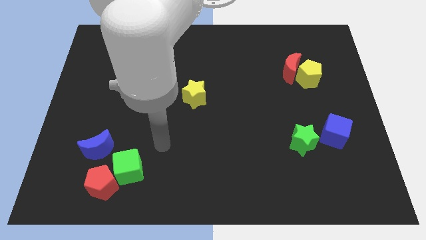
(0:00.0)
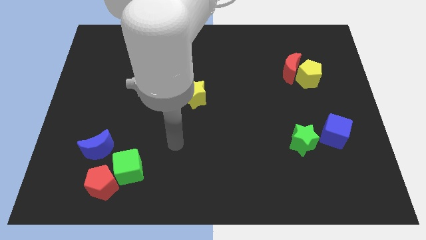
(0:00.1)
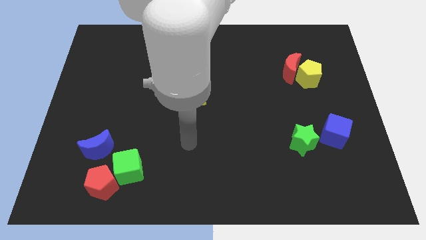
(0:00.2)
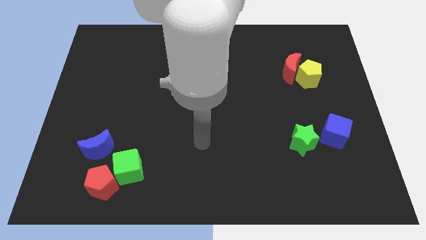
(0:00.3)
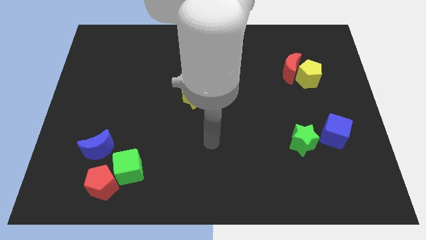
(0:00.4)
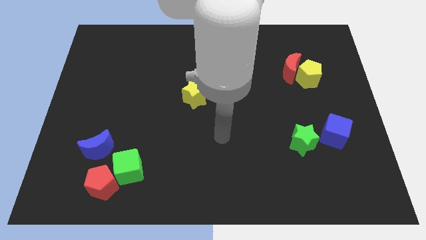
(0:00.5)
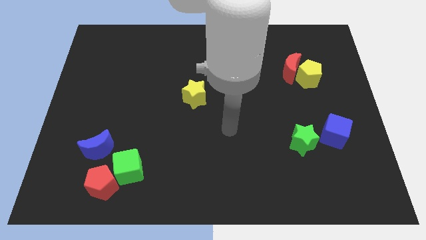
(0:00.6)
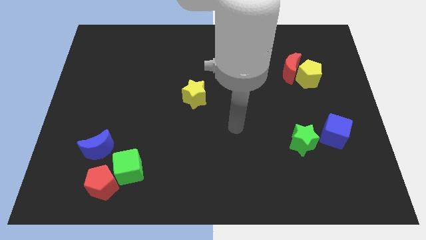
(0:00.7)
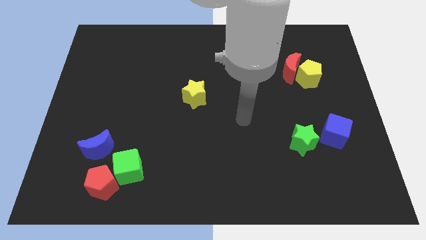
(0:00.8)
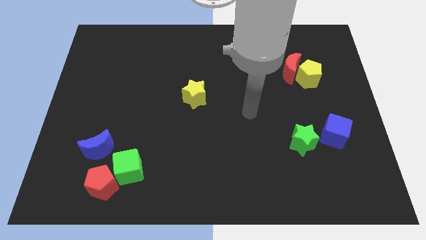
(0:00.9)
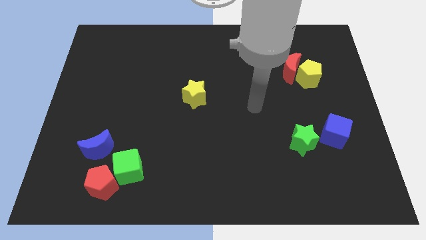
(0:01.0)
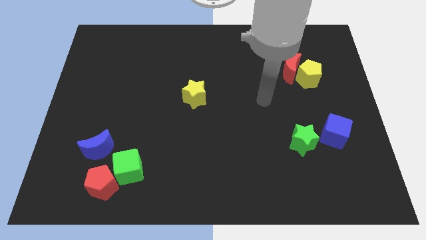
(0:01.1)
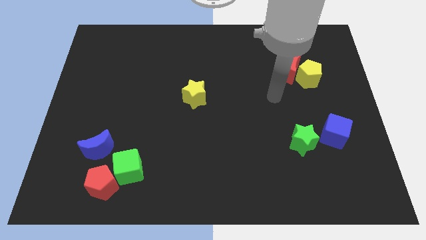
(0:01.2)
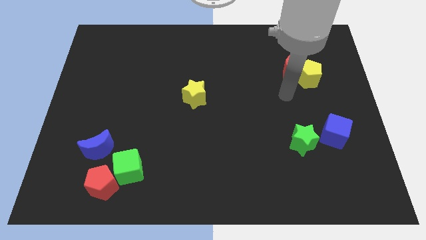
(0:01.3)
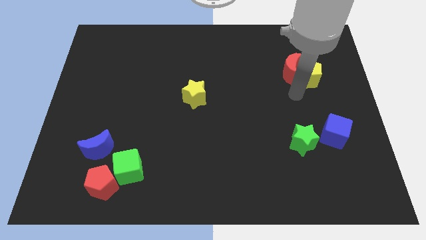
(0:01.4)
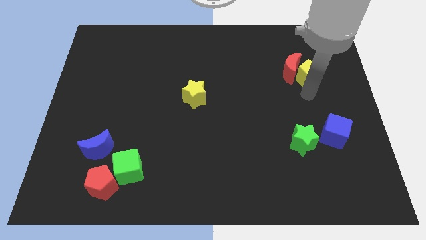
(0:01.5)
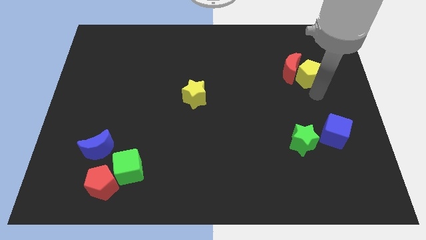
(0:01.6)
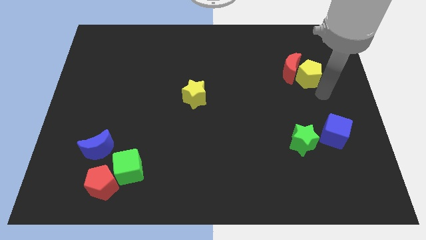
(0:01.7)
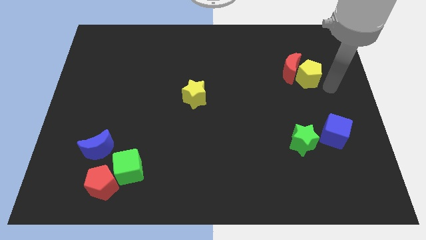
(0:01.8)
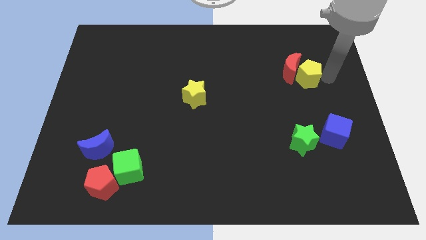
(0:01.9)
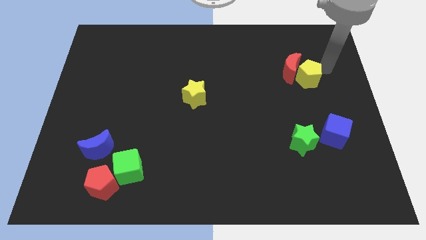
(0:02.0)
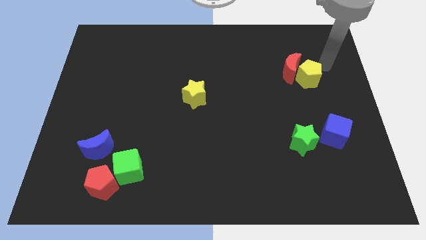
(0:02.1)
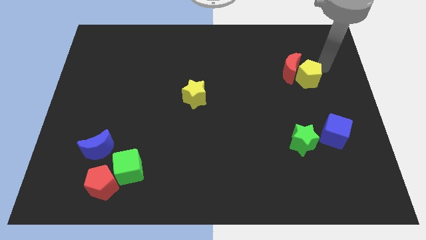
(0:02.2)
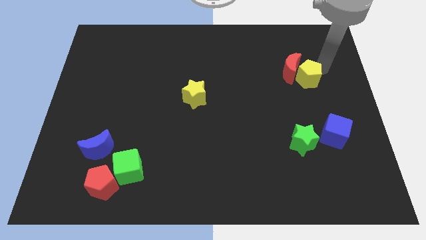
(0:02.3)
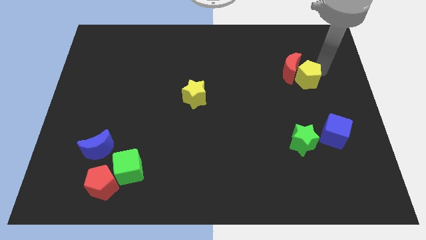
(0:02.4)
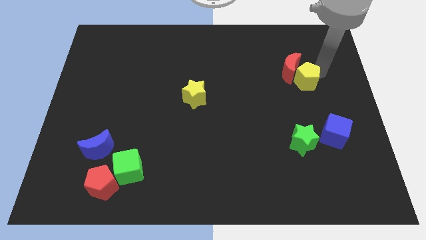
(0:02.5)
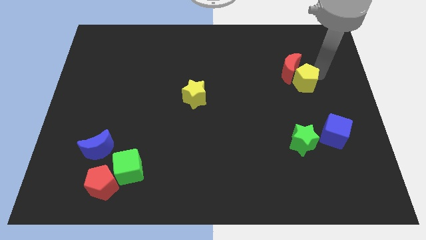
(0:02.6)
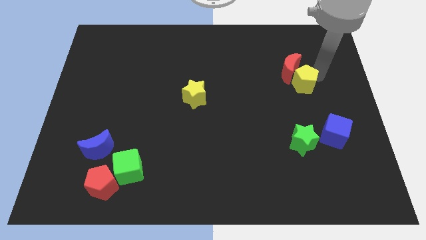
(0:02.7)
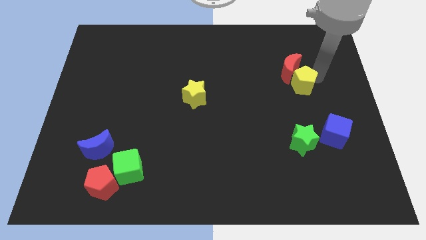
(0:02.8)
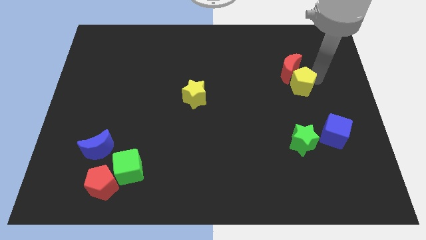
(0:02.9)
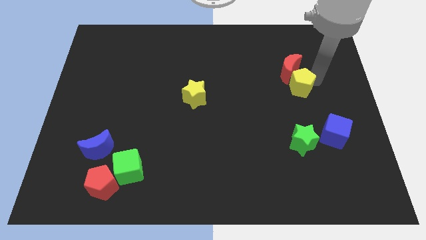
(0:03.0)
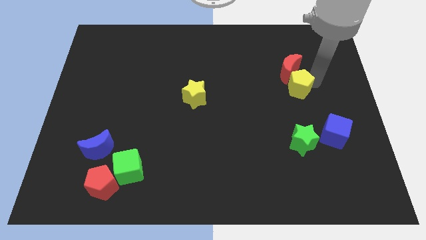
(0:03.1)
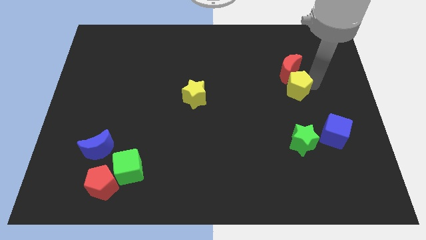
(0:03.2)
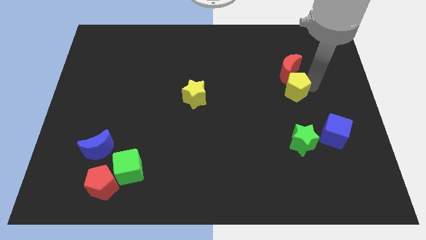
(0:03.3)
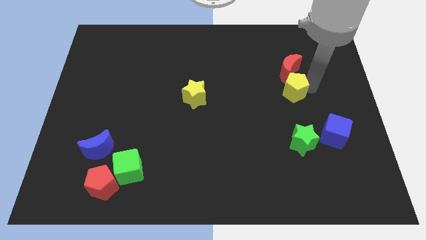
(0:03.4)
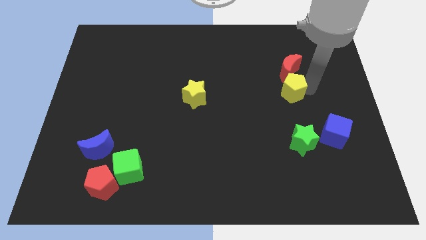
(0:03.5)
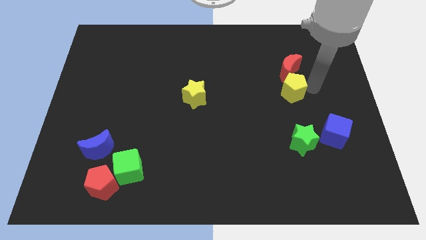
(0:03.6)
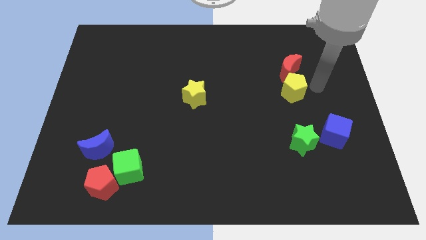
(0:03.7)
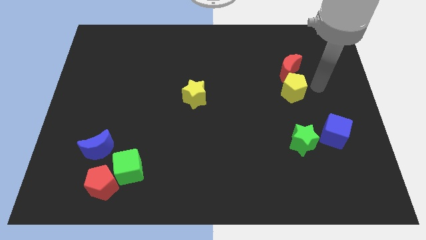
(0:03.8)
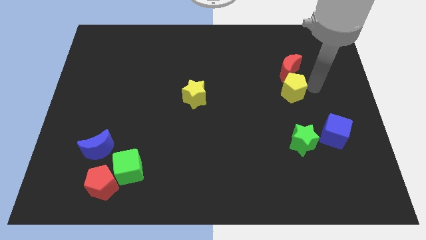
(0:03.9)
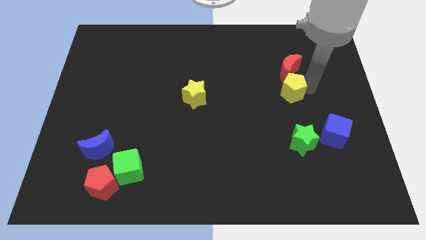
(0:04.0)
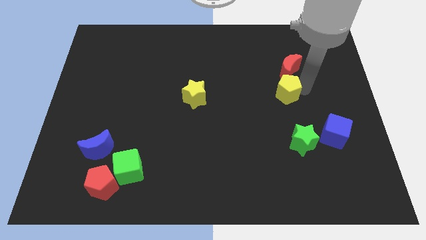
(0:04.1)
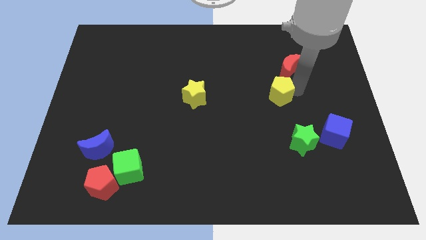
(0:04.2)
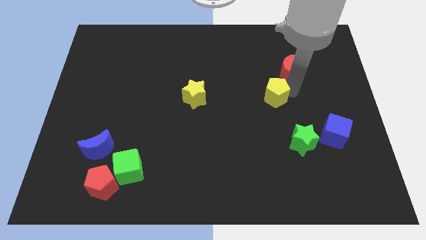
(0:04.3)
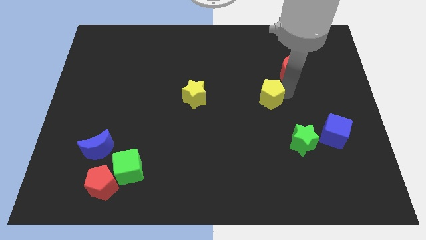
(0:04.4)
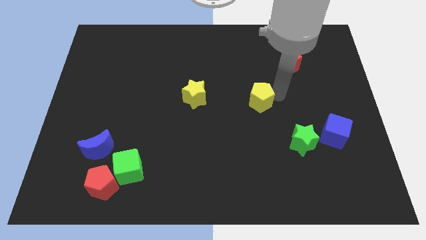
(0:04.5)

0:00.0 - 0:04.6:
slide the yellow pentagon to the center of the board

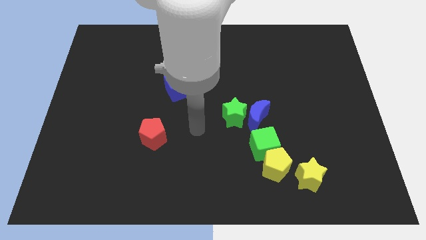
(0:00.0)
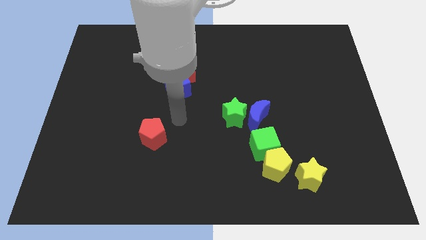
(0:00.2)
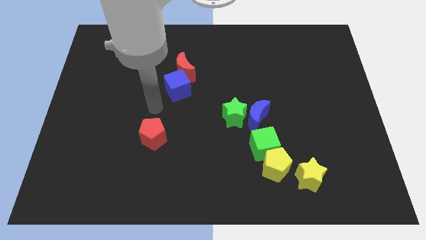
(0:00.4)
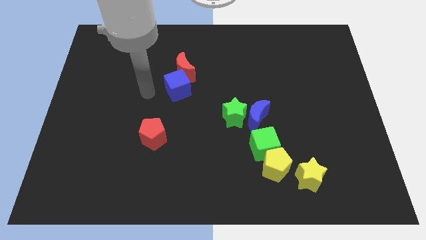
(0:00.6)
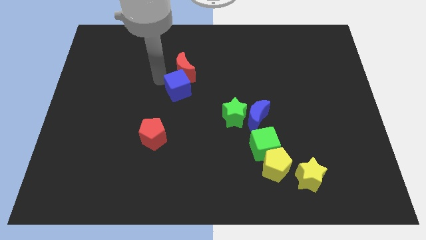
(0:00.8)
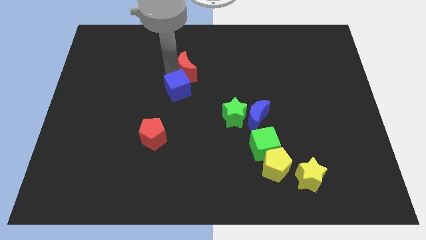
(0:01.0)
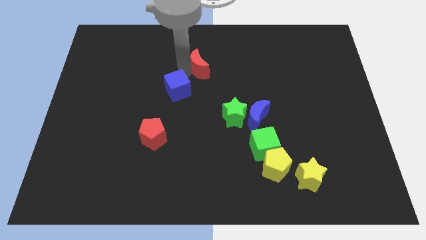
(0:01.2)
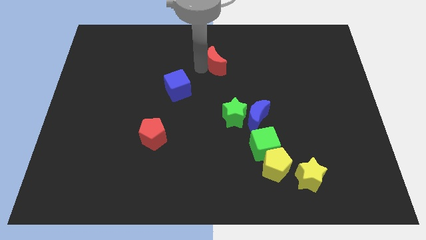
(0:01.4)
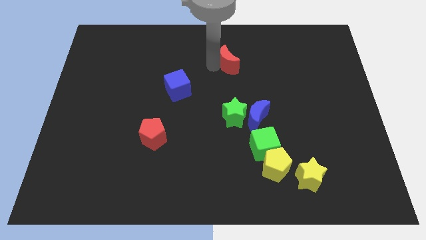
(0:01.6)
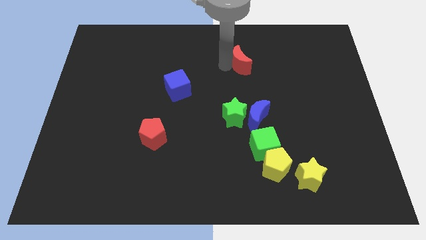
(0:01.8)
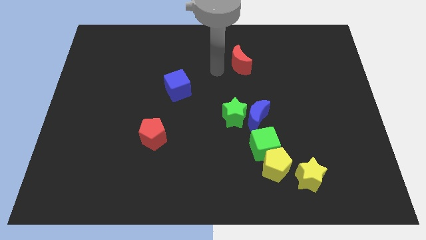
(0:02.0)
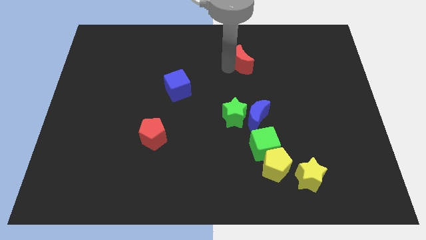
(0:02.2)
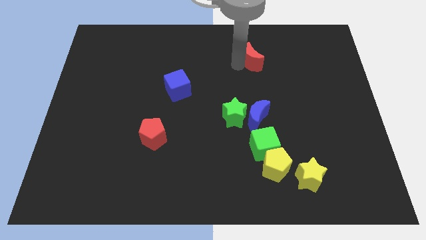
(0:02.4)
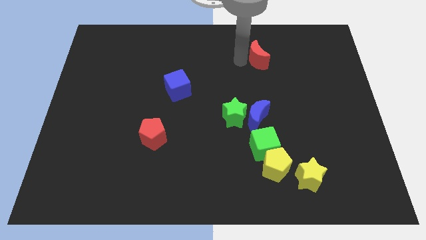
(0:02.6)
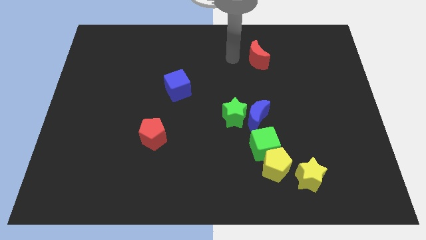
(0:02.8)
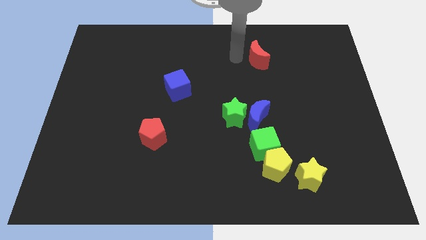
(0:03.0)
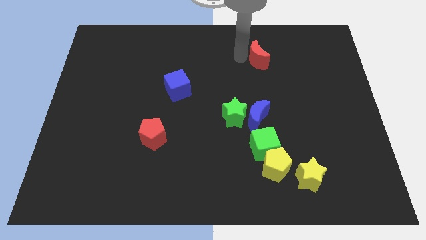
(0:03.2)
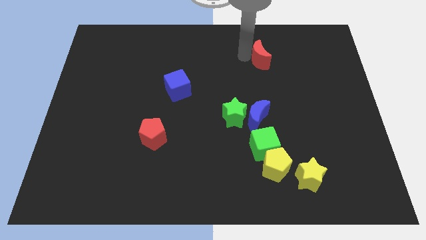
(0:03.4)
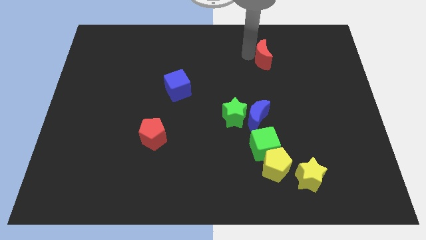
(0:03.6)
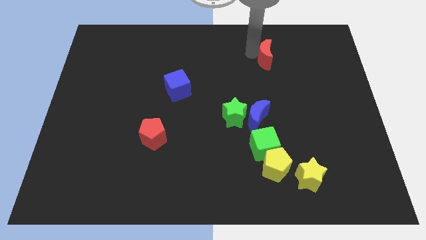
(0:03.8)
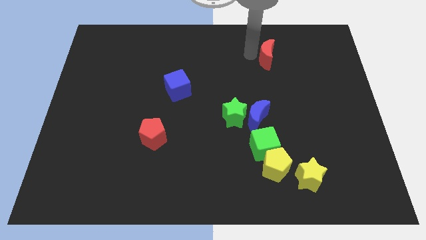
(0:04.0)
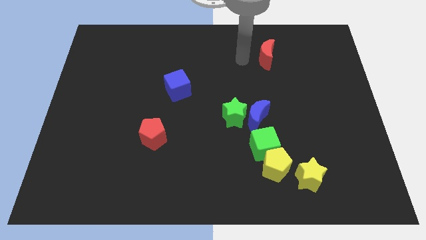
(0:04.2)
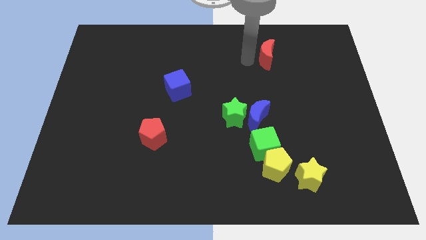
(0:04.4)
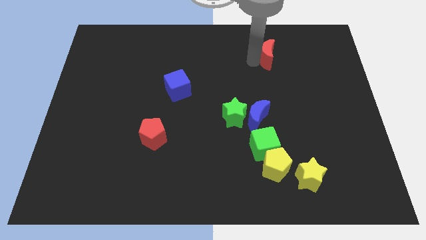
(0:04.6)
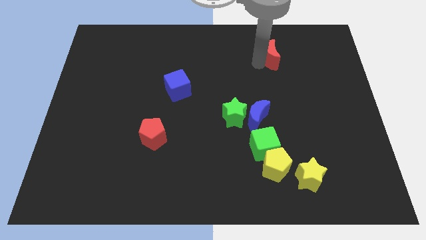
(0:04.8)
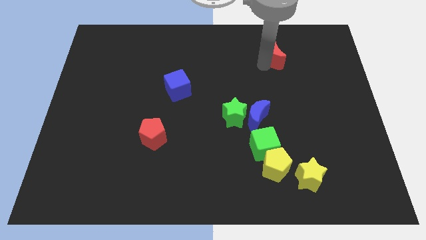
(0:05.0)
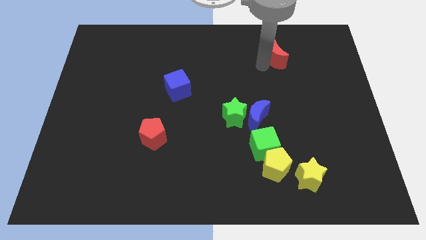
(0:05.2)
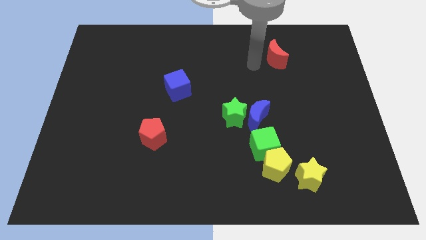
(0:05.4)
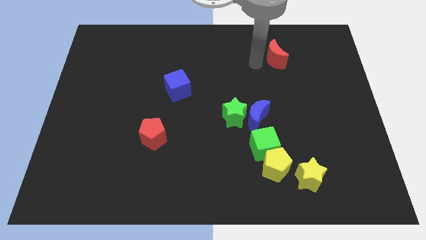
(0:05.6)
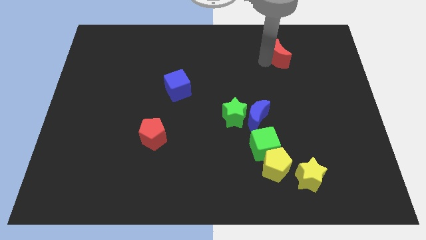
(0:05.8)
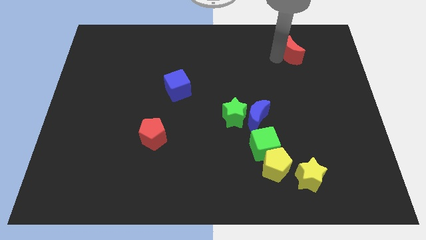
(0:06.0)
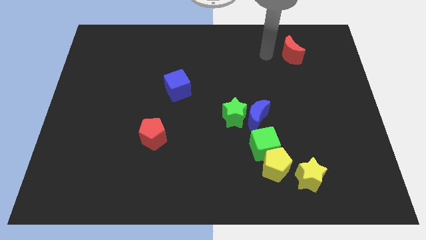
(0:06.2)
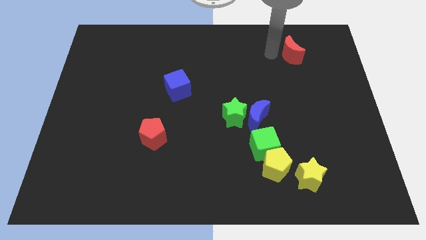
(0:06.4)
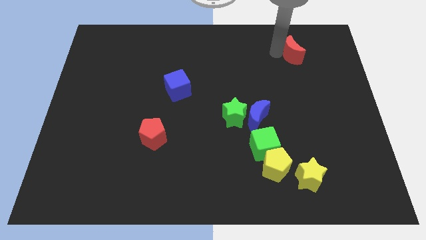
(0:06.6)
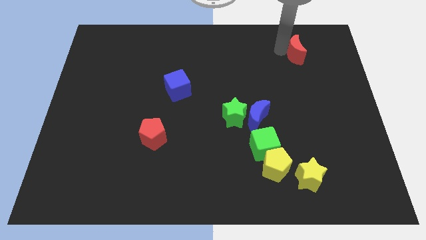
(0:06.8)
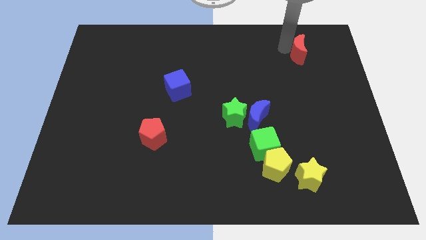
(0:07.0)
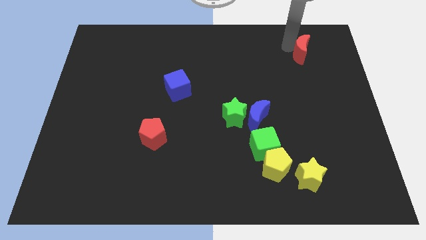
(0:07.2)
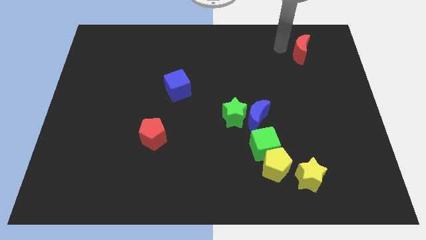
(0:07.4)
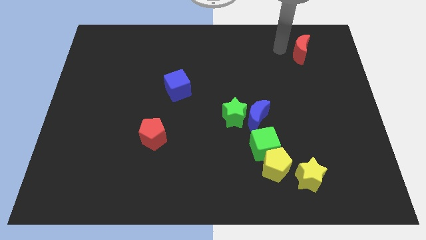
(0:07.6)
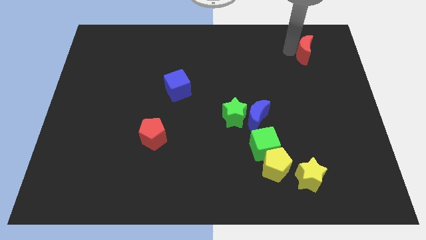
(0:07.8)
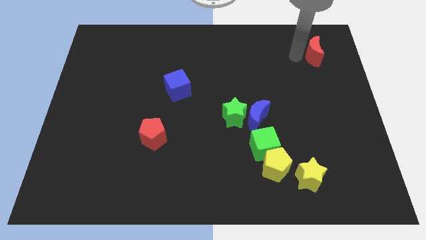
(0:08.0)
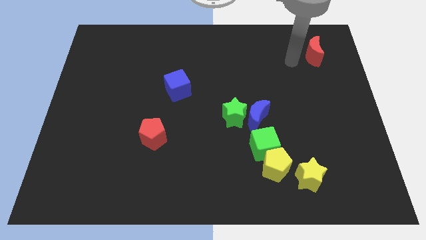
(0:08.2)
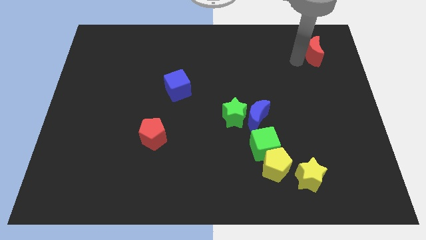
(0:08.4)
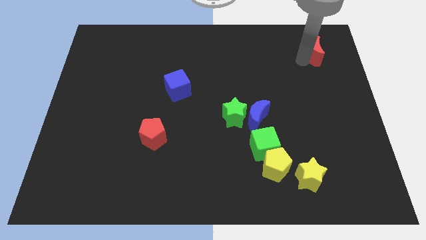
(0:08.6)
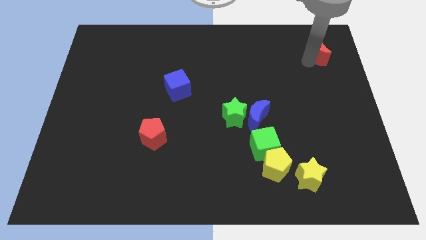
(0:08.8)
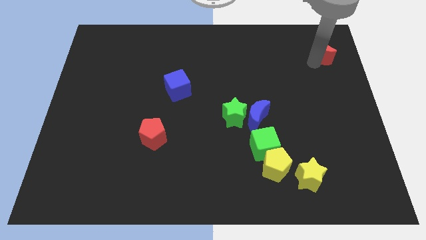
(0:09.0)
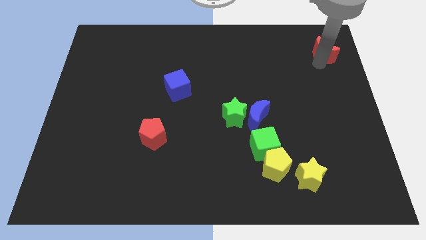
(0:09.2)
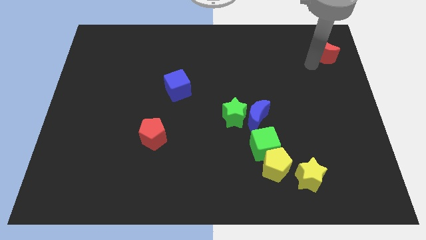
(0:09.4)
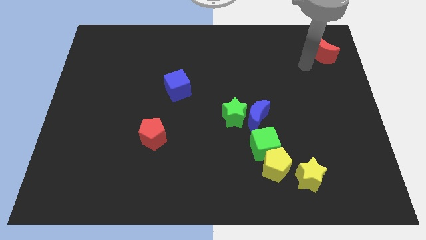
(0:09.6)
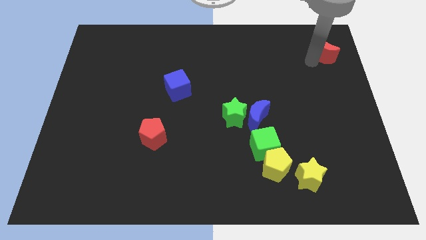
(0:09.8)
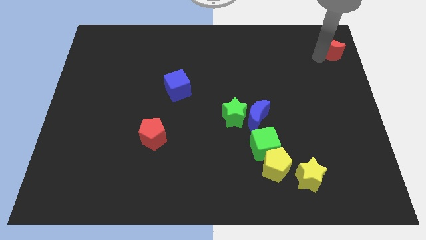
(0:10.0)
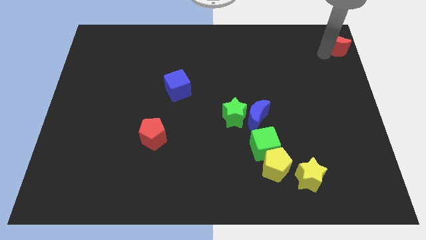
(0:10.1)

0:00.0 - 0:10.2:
push the red moon to the top right of the board
